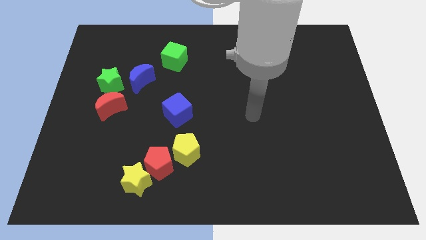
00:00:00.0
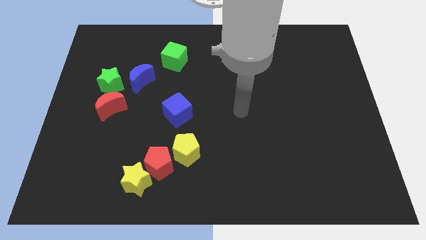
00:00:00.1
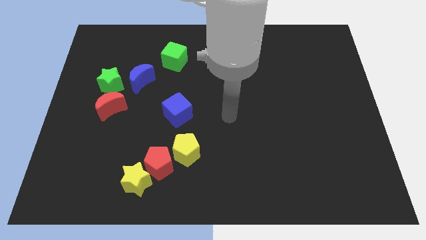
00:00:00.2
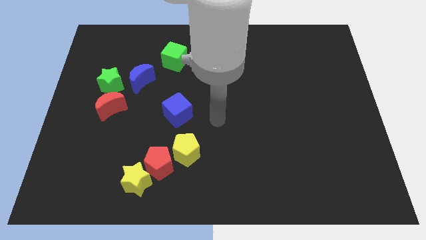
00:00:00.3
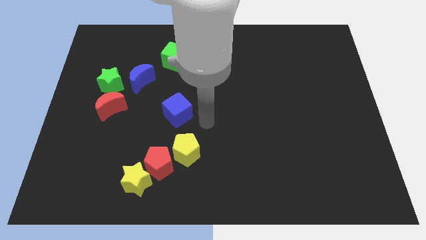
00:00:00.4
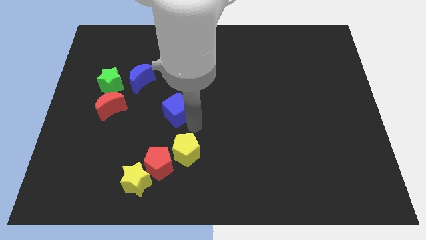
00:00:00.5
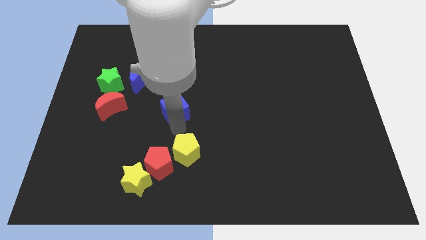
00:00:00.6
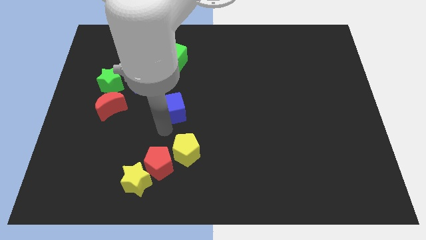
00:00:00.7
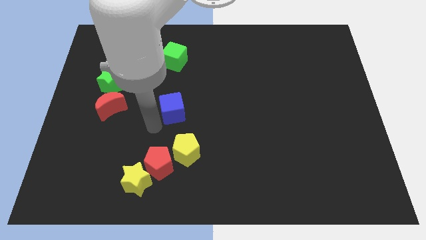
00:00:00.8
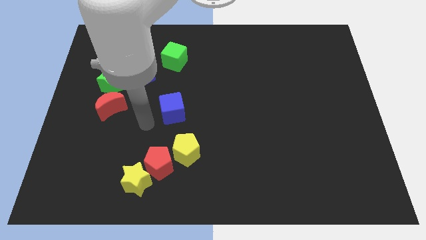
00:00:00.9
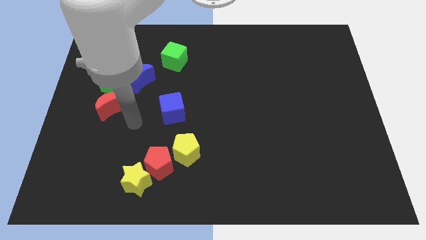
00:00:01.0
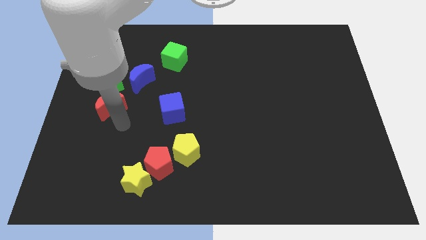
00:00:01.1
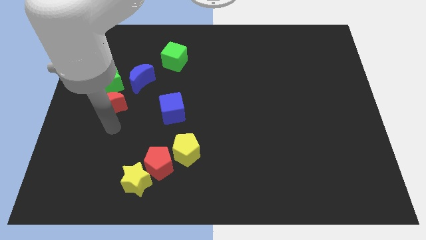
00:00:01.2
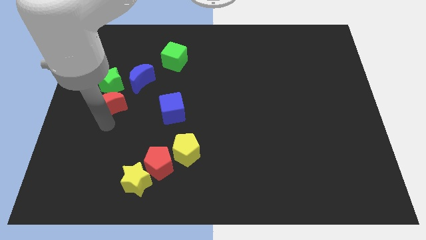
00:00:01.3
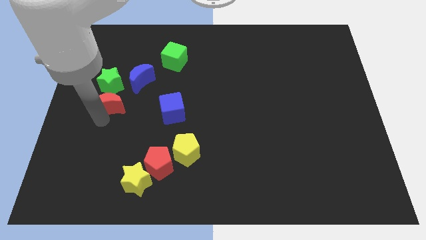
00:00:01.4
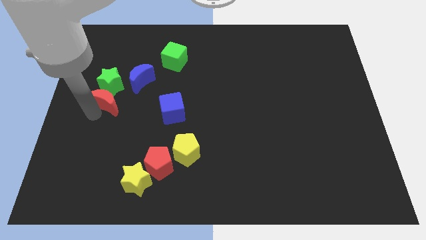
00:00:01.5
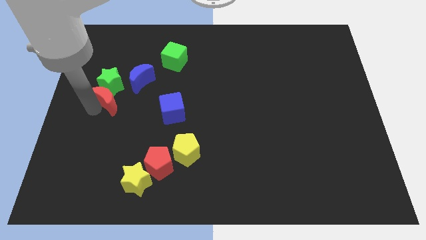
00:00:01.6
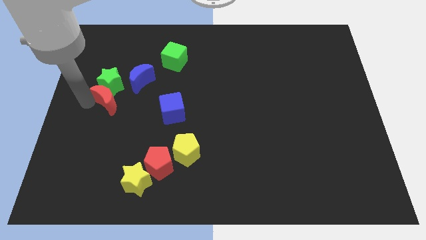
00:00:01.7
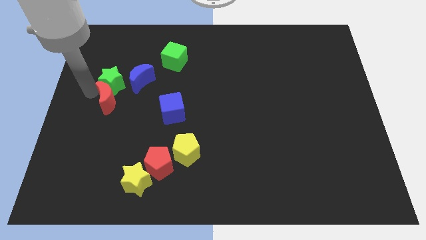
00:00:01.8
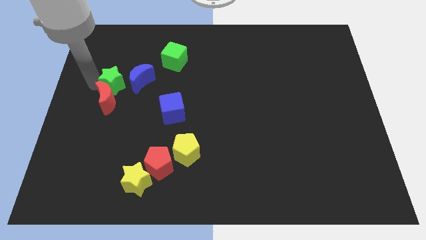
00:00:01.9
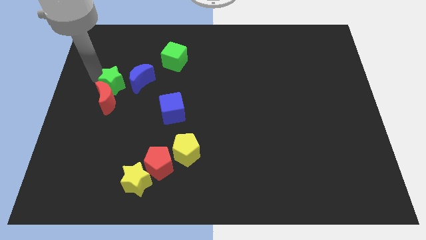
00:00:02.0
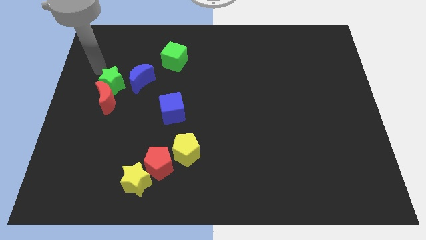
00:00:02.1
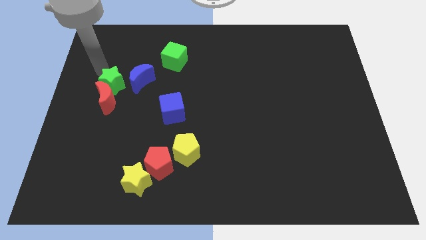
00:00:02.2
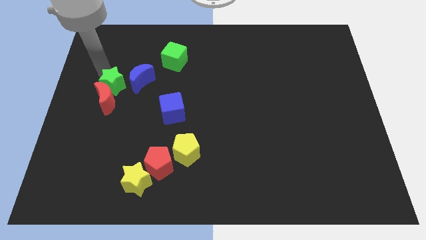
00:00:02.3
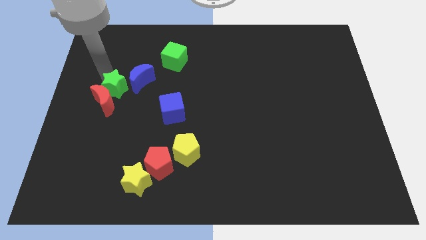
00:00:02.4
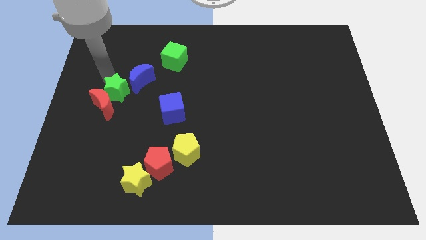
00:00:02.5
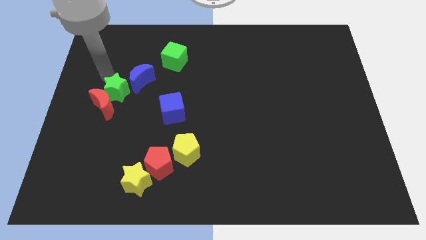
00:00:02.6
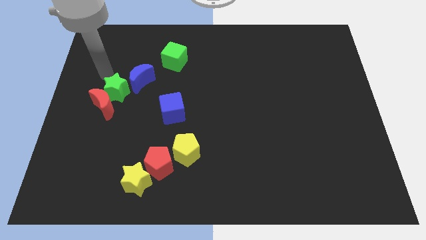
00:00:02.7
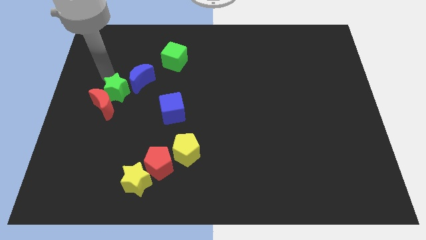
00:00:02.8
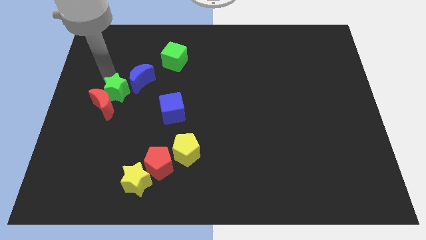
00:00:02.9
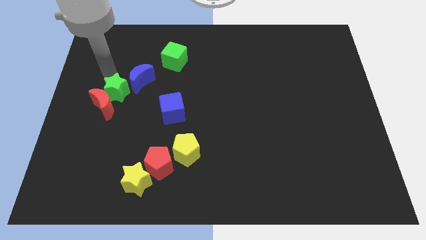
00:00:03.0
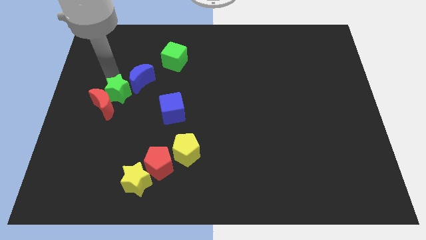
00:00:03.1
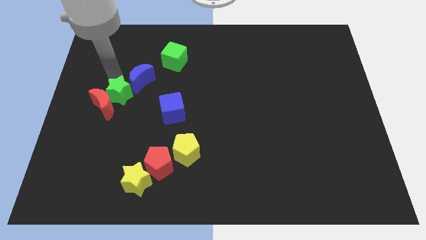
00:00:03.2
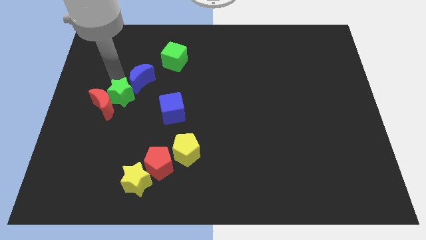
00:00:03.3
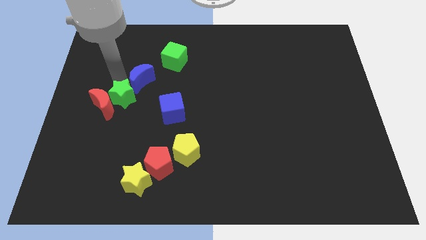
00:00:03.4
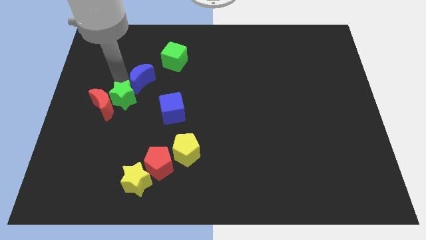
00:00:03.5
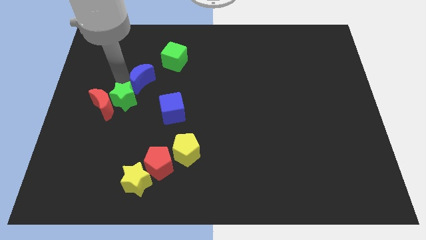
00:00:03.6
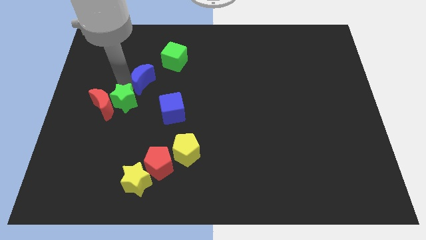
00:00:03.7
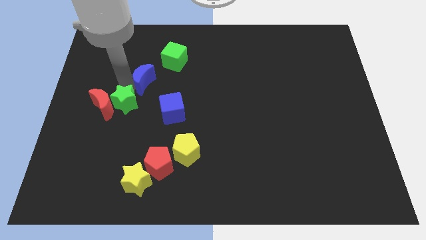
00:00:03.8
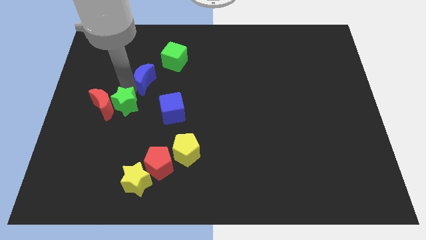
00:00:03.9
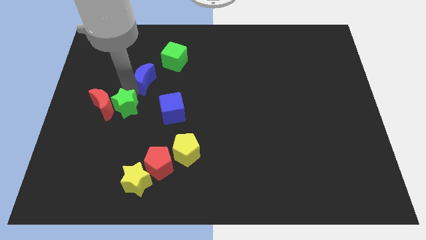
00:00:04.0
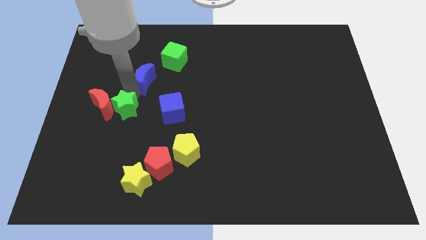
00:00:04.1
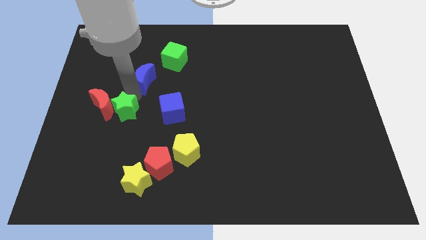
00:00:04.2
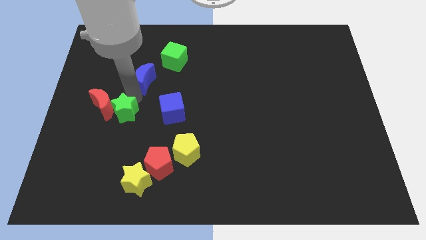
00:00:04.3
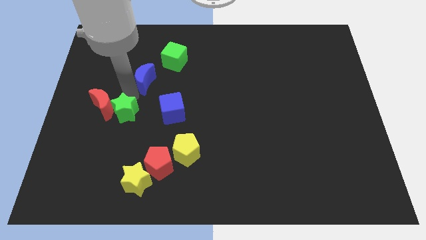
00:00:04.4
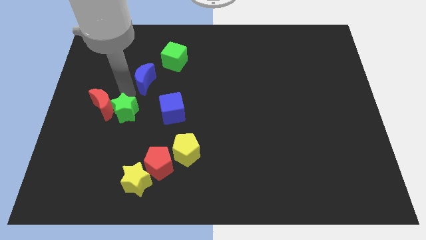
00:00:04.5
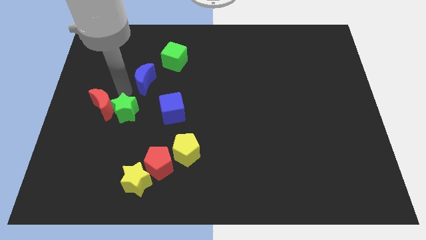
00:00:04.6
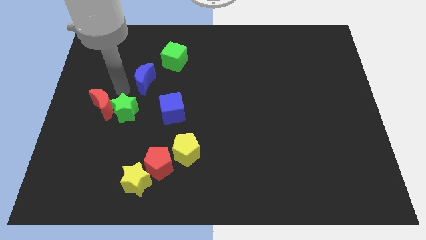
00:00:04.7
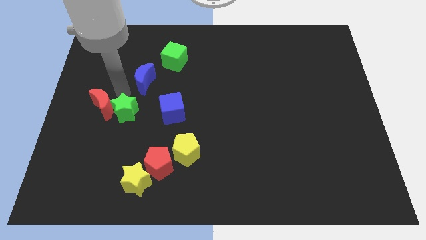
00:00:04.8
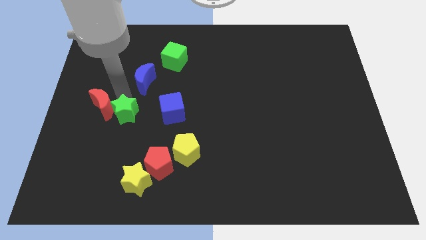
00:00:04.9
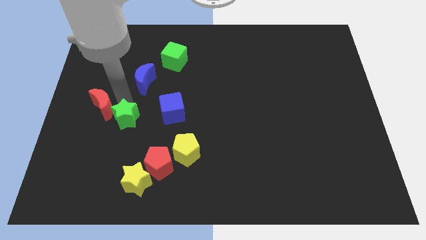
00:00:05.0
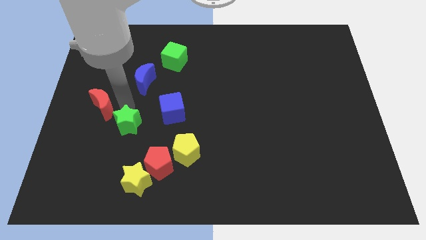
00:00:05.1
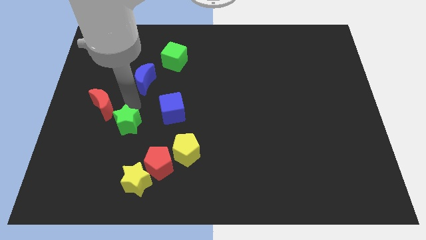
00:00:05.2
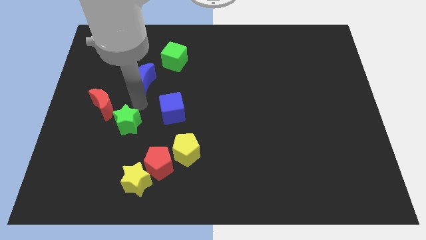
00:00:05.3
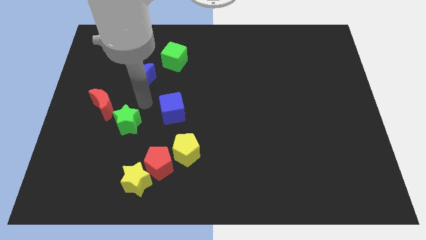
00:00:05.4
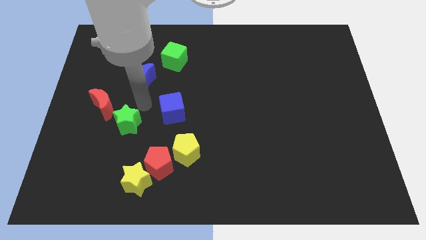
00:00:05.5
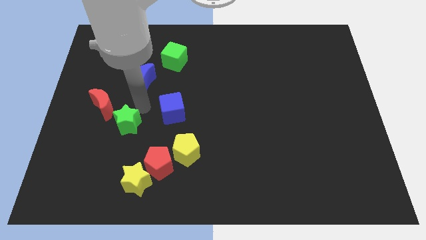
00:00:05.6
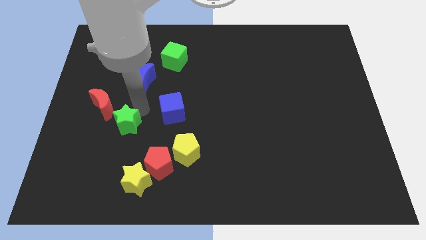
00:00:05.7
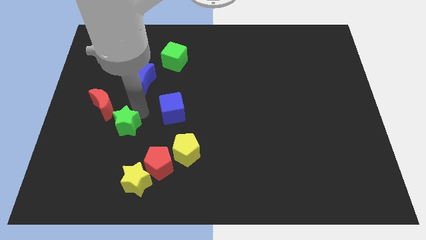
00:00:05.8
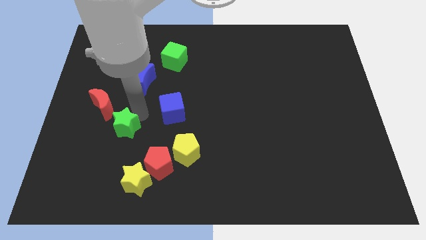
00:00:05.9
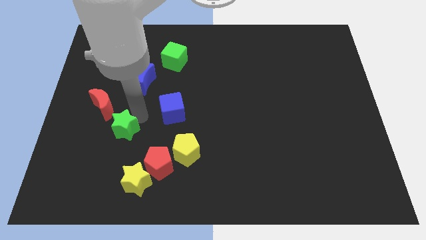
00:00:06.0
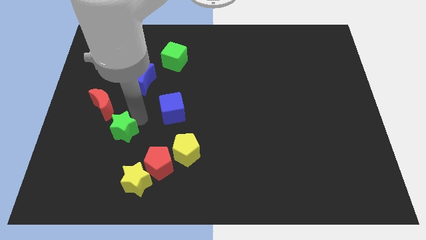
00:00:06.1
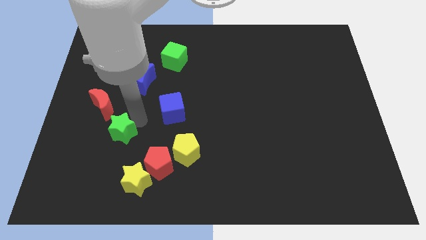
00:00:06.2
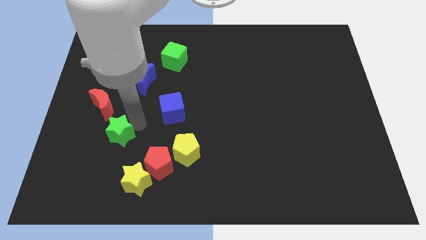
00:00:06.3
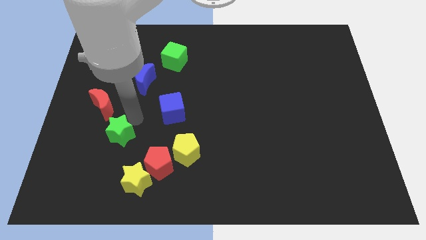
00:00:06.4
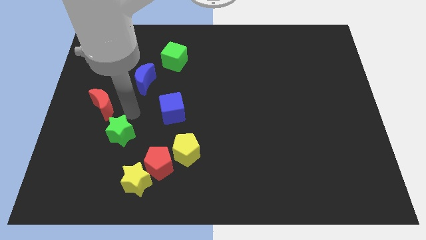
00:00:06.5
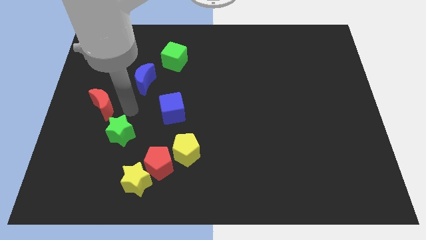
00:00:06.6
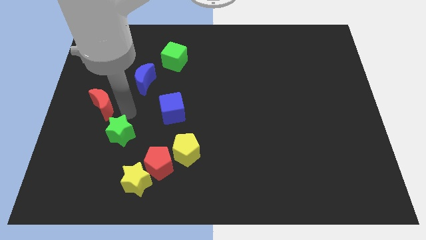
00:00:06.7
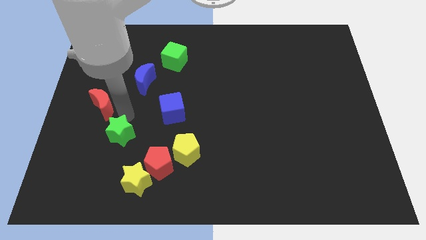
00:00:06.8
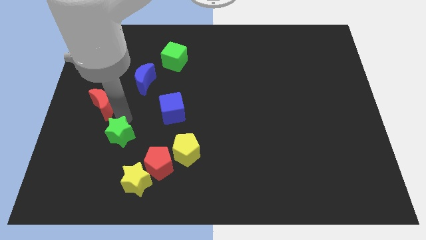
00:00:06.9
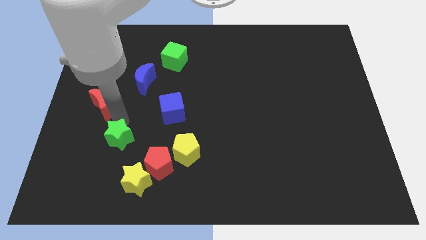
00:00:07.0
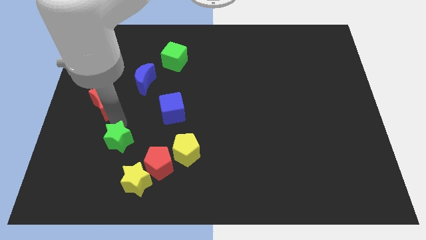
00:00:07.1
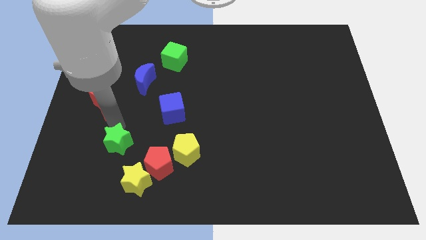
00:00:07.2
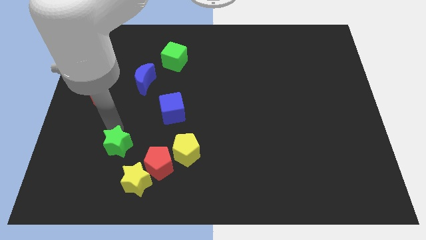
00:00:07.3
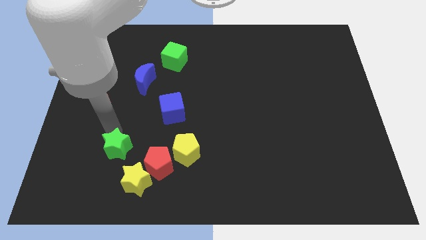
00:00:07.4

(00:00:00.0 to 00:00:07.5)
move the green star left of the red pentagon
